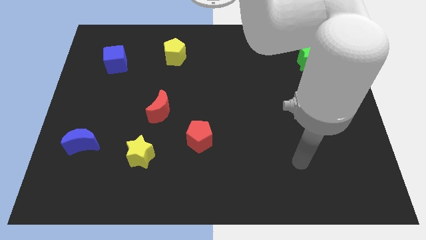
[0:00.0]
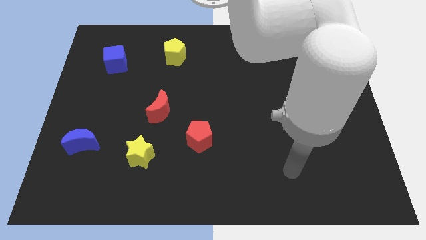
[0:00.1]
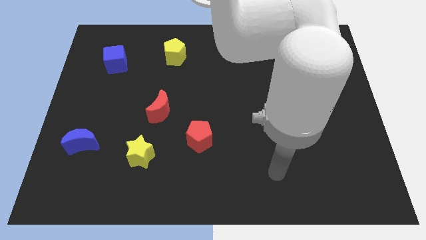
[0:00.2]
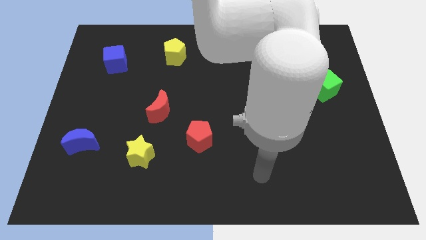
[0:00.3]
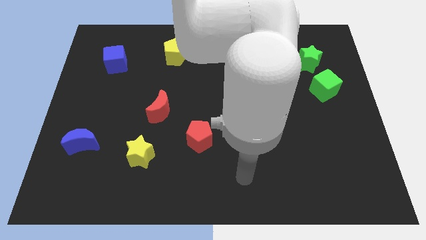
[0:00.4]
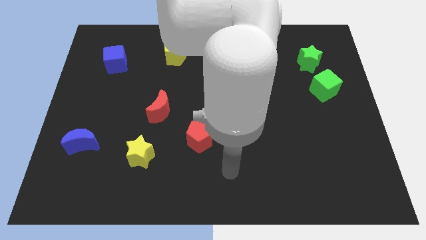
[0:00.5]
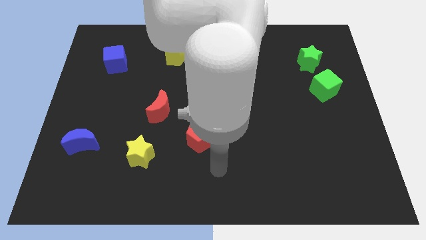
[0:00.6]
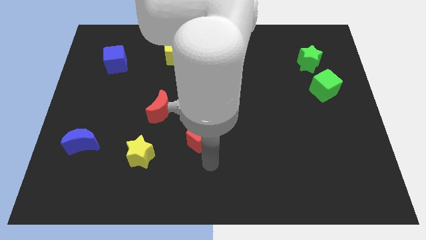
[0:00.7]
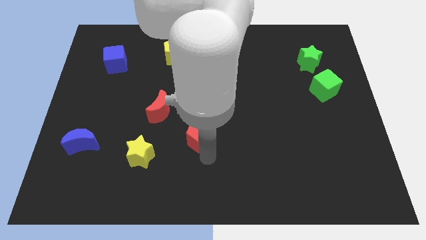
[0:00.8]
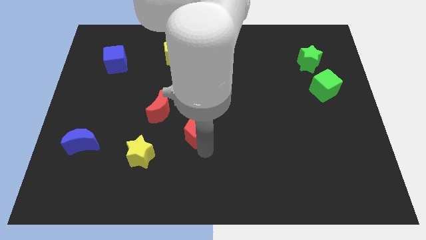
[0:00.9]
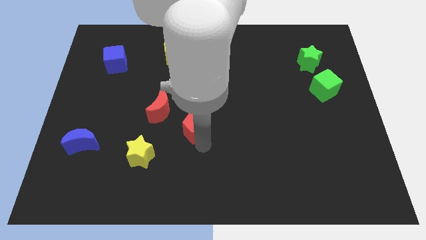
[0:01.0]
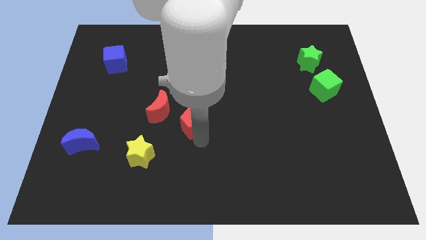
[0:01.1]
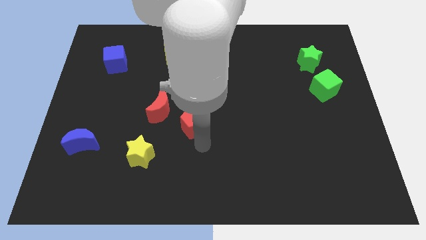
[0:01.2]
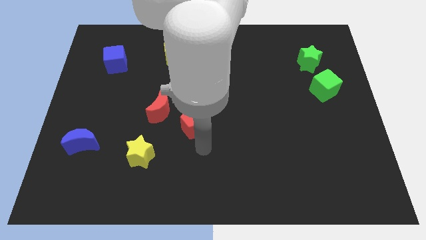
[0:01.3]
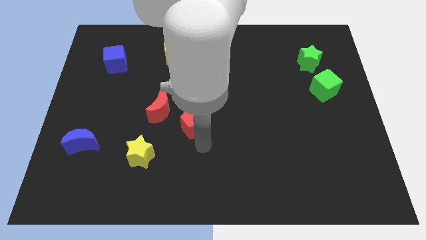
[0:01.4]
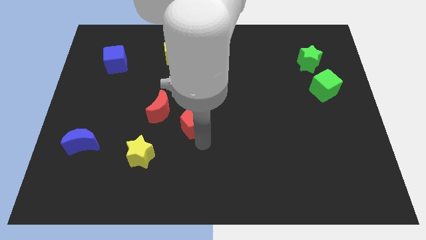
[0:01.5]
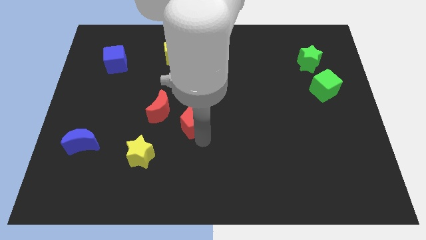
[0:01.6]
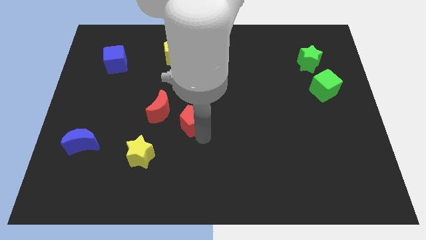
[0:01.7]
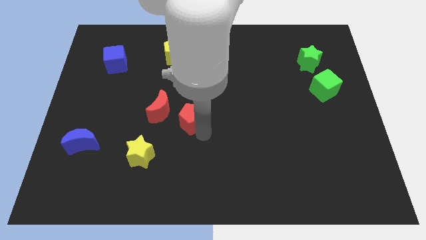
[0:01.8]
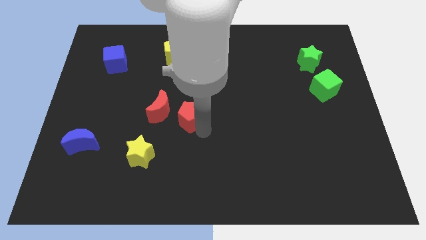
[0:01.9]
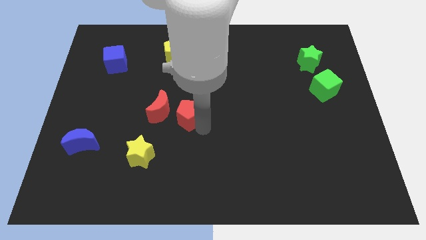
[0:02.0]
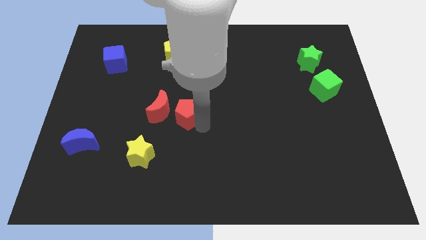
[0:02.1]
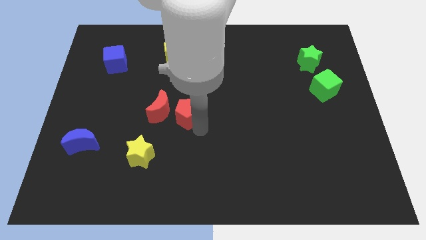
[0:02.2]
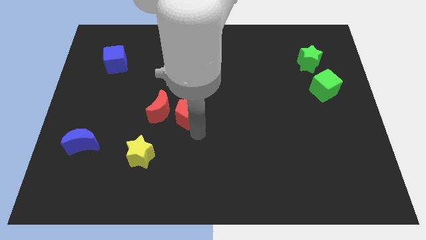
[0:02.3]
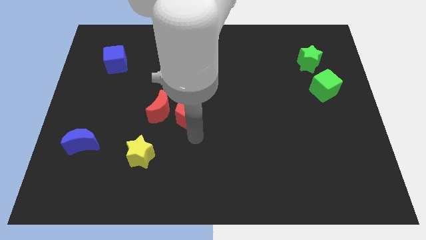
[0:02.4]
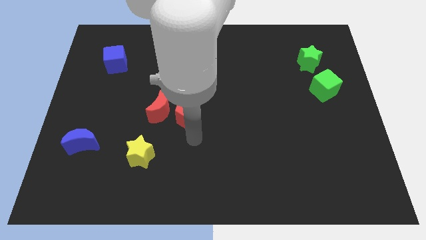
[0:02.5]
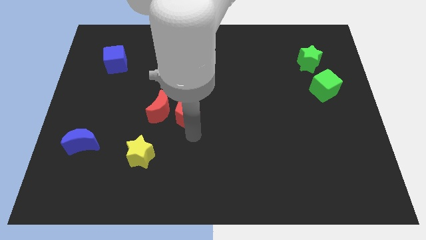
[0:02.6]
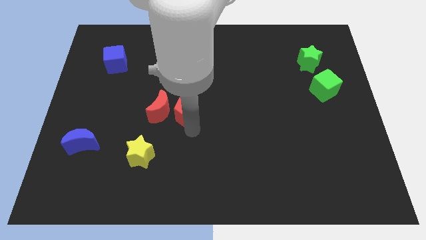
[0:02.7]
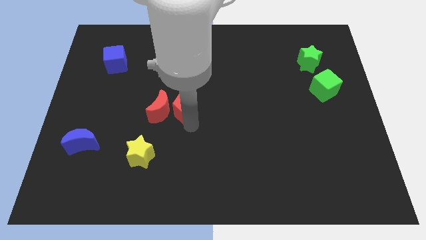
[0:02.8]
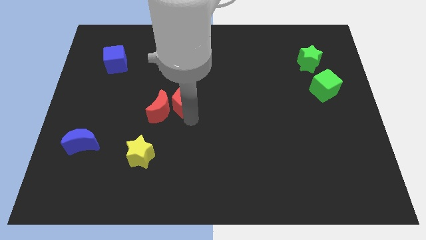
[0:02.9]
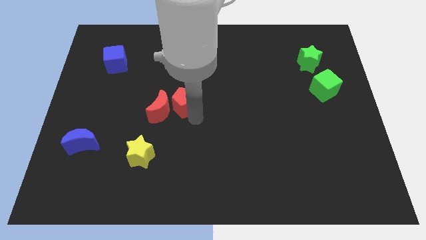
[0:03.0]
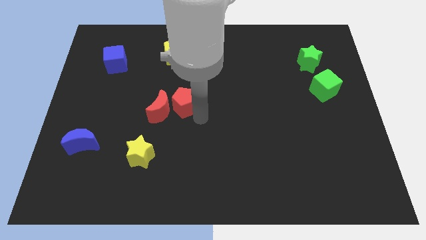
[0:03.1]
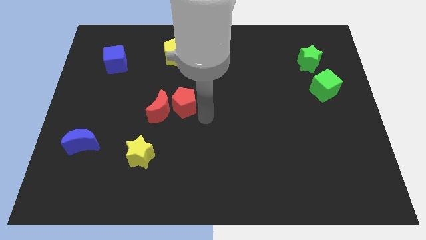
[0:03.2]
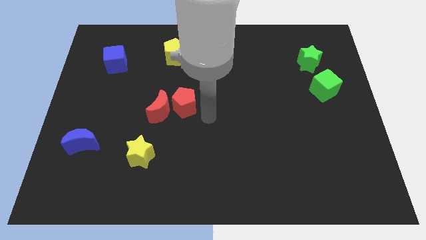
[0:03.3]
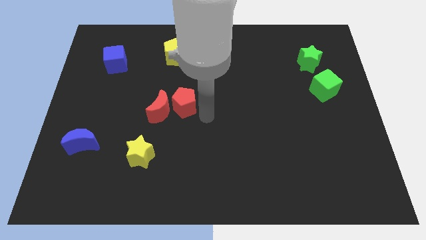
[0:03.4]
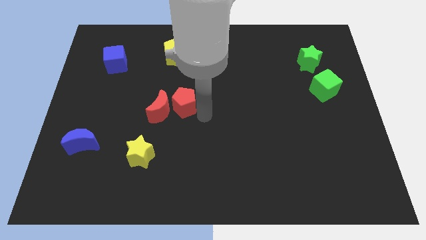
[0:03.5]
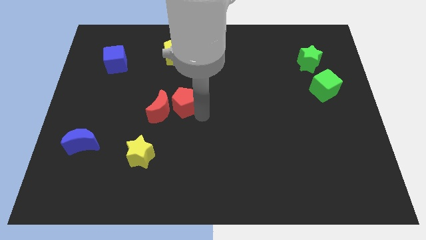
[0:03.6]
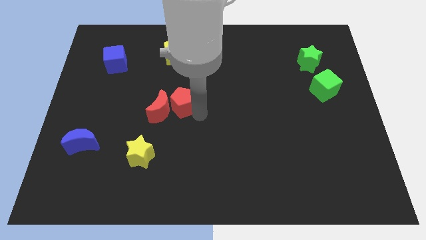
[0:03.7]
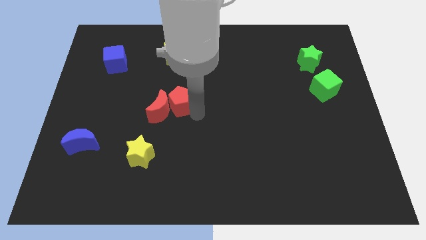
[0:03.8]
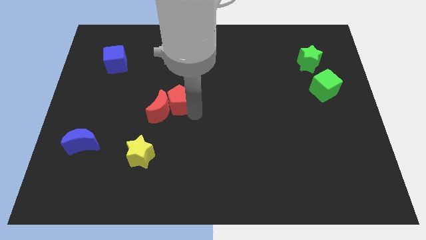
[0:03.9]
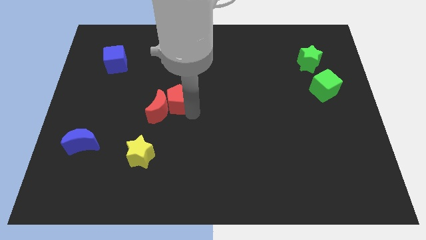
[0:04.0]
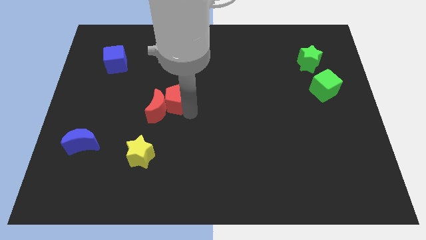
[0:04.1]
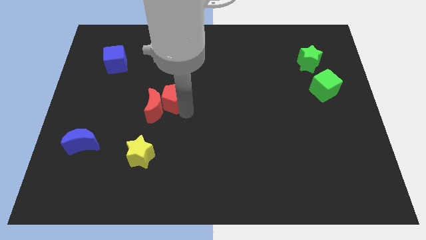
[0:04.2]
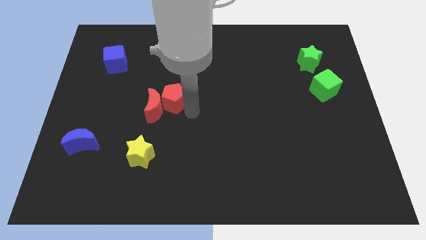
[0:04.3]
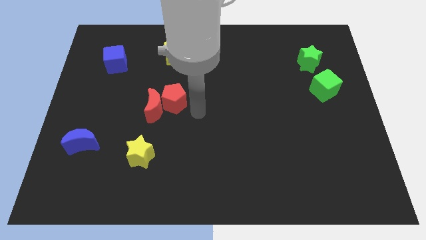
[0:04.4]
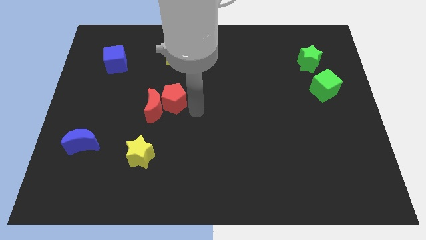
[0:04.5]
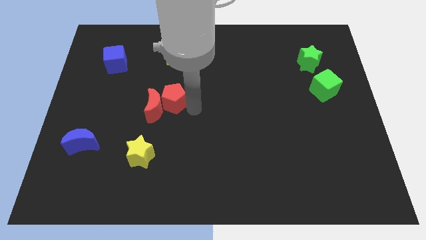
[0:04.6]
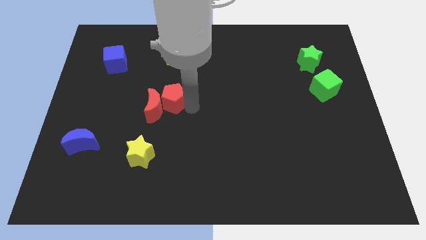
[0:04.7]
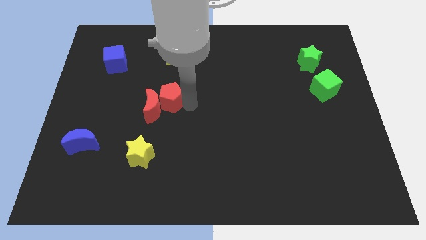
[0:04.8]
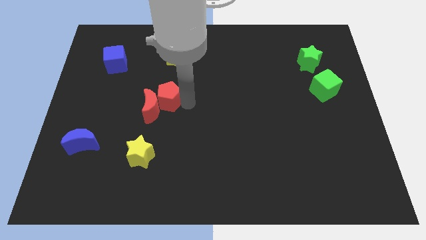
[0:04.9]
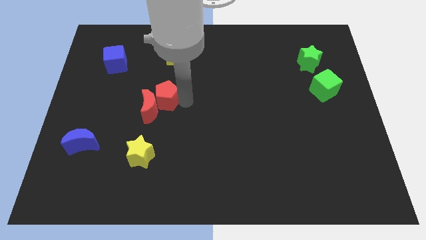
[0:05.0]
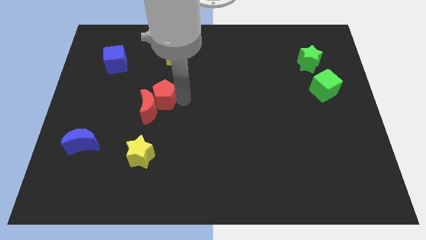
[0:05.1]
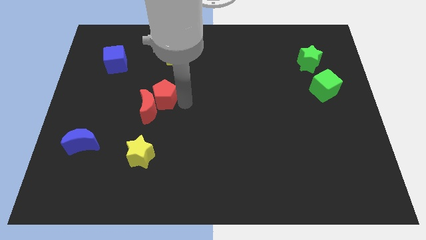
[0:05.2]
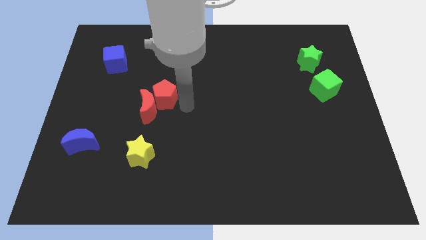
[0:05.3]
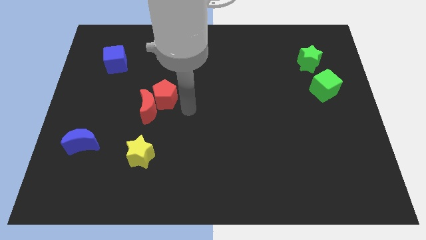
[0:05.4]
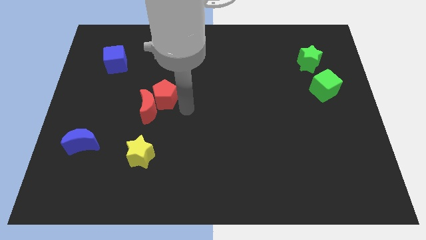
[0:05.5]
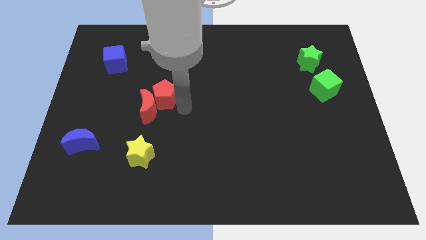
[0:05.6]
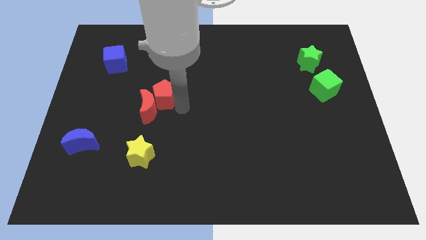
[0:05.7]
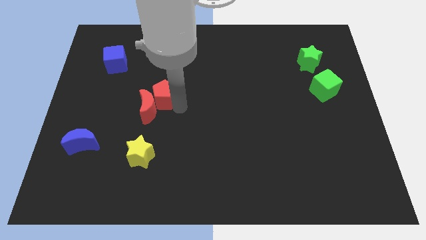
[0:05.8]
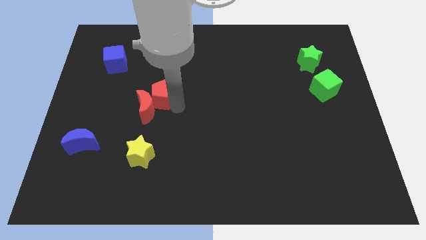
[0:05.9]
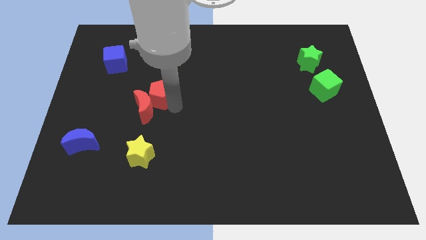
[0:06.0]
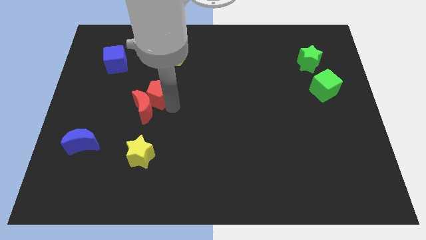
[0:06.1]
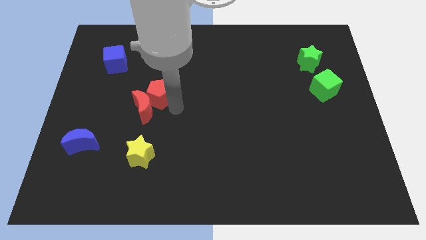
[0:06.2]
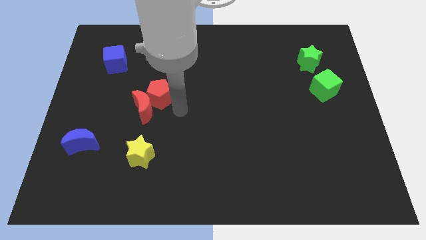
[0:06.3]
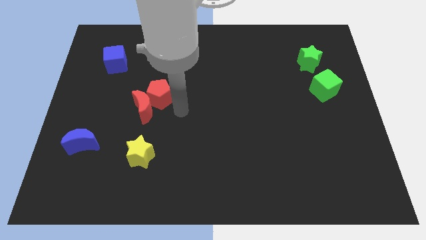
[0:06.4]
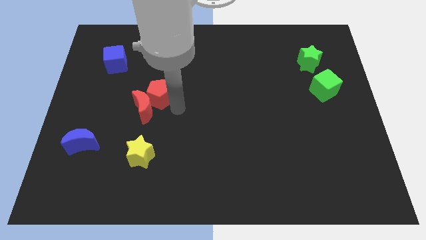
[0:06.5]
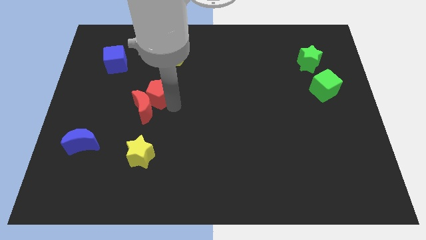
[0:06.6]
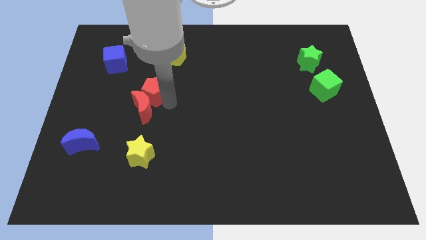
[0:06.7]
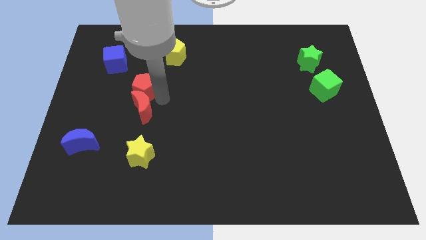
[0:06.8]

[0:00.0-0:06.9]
move the red pentagon to the bottom right of the blue cube

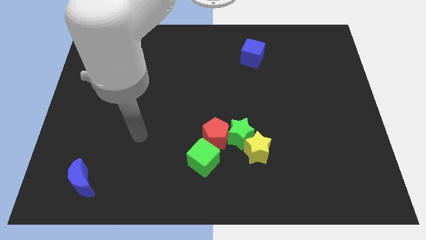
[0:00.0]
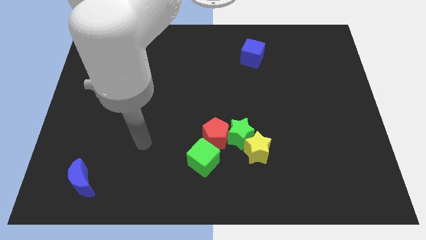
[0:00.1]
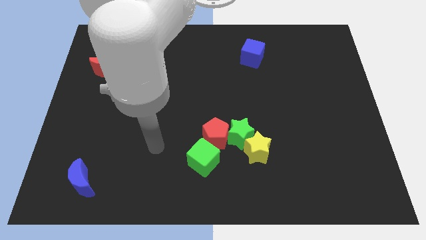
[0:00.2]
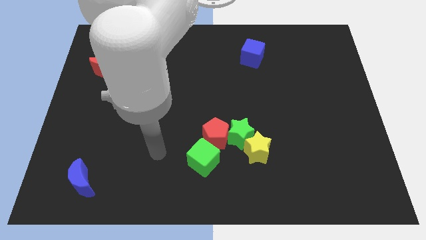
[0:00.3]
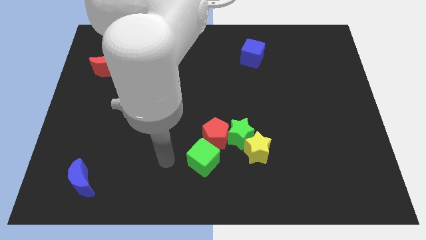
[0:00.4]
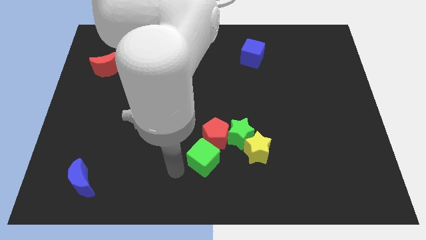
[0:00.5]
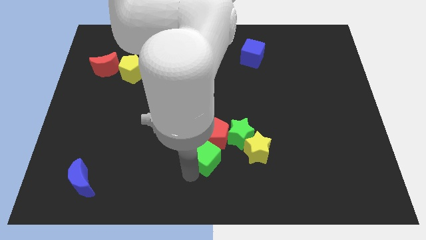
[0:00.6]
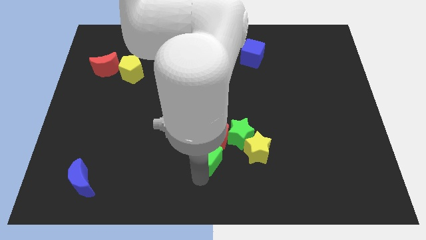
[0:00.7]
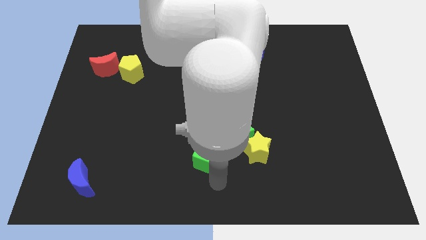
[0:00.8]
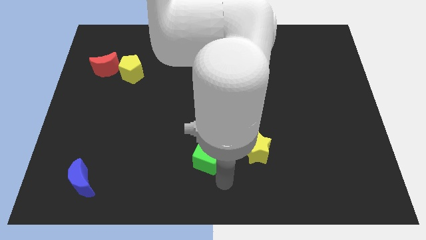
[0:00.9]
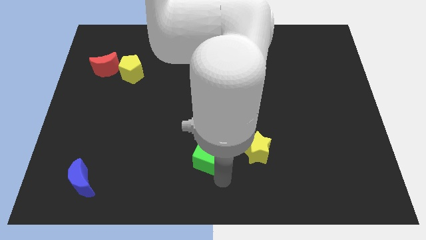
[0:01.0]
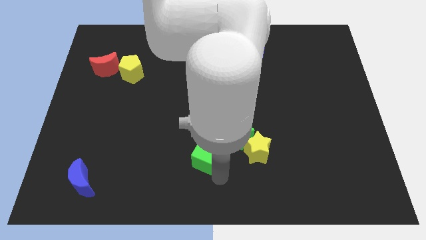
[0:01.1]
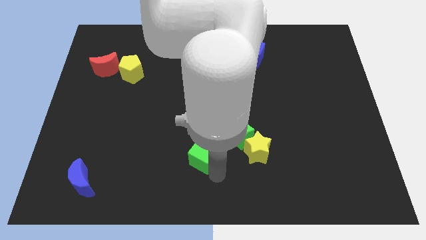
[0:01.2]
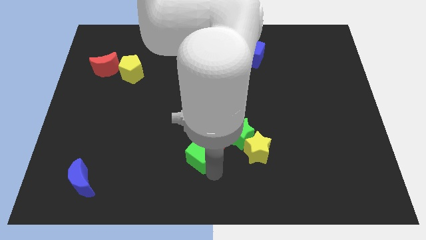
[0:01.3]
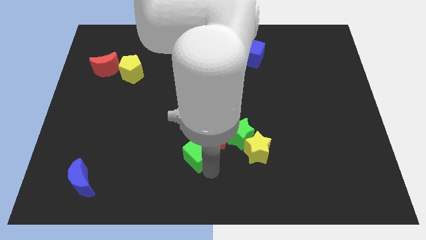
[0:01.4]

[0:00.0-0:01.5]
move the green cube to the left of the green star

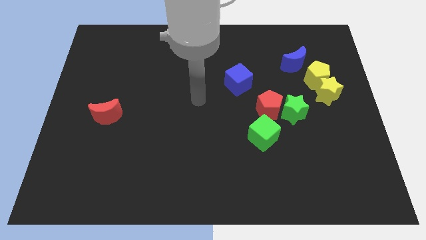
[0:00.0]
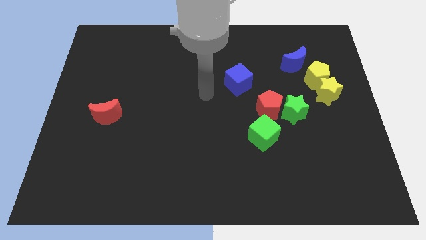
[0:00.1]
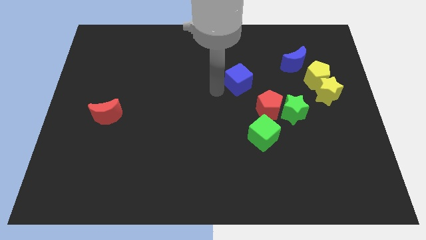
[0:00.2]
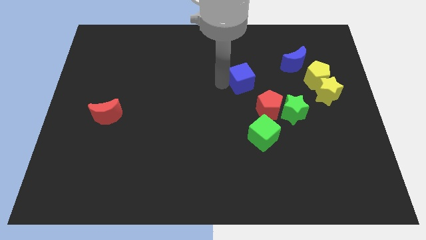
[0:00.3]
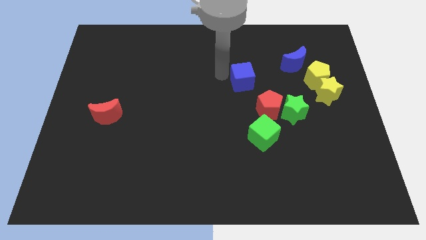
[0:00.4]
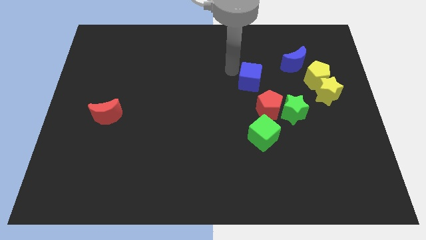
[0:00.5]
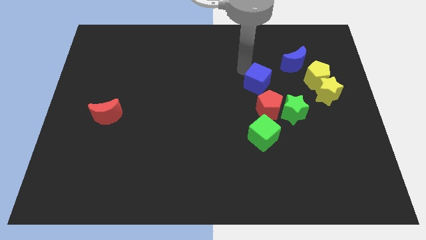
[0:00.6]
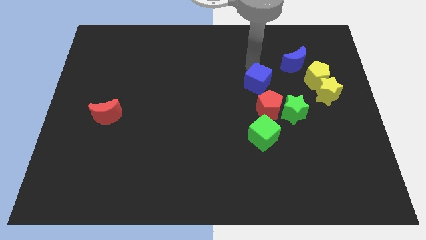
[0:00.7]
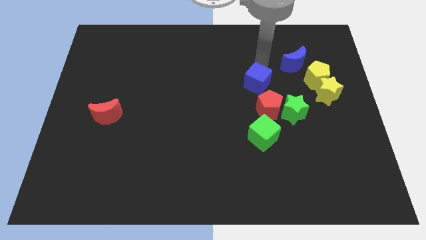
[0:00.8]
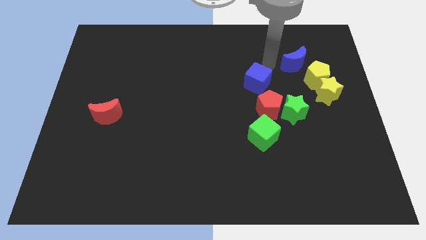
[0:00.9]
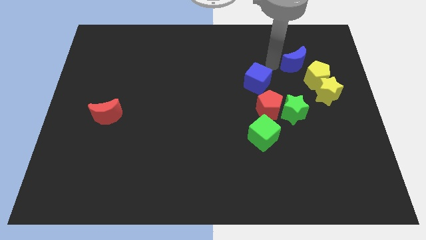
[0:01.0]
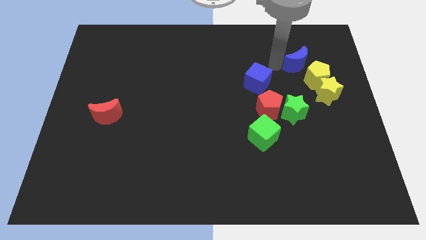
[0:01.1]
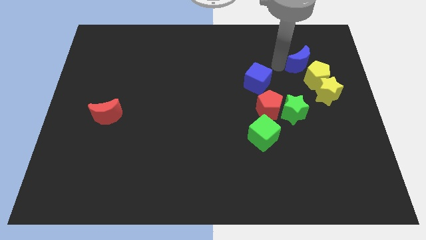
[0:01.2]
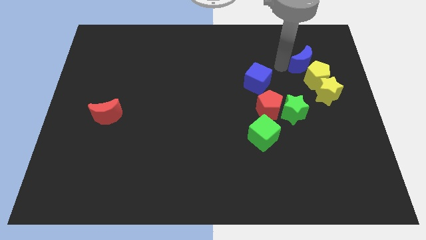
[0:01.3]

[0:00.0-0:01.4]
move the blue moon to the top side of the yellow star
